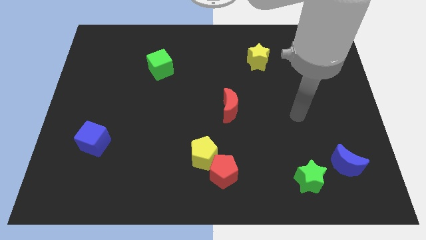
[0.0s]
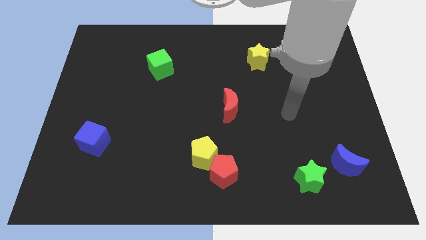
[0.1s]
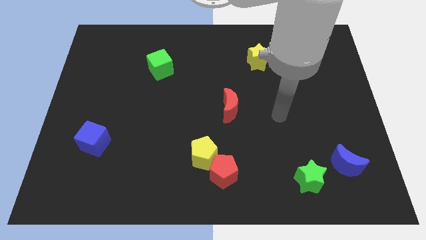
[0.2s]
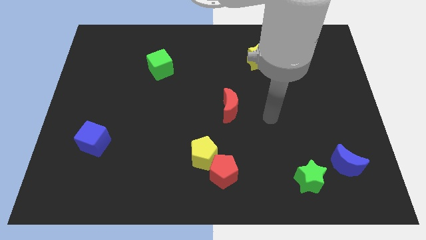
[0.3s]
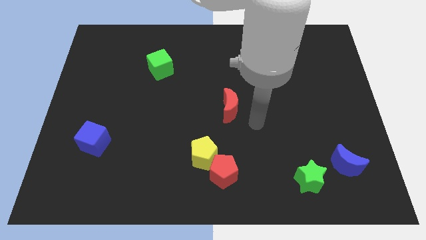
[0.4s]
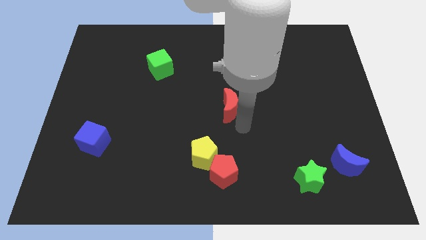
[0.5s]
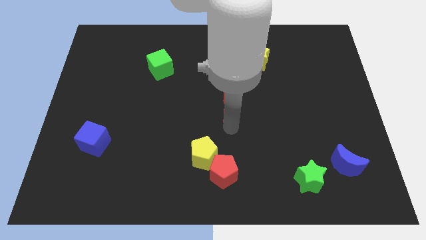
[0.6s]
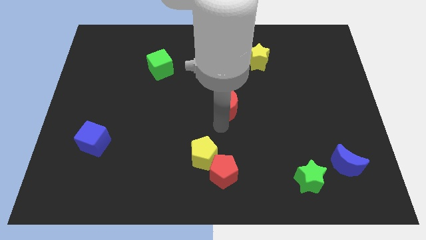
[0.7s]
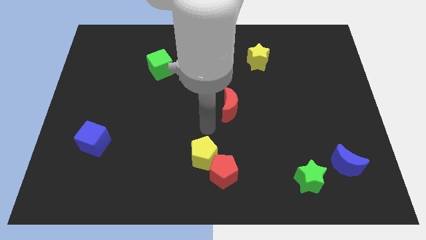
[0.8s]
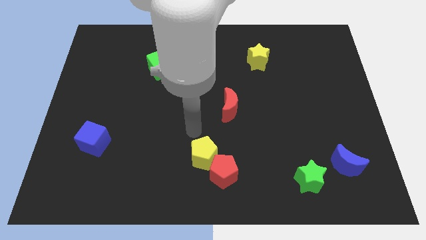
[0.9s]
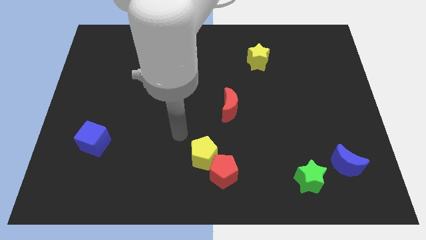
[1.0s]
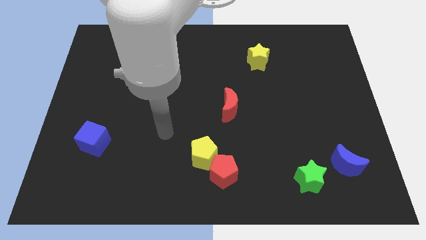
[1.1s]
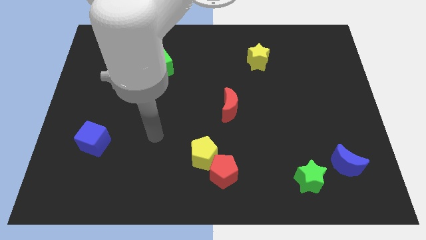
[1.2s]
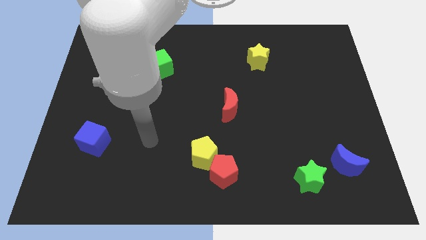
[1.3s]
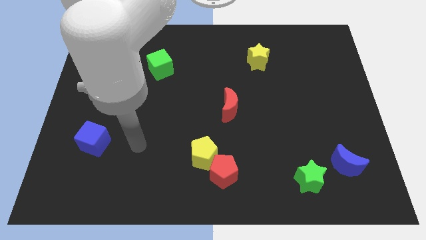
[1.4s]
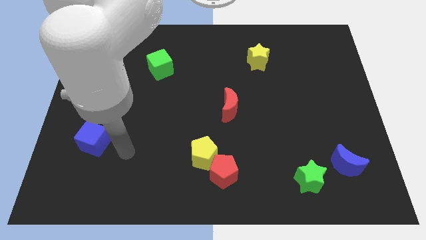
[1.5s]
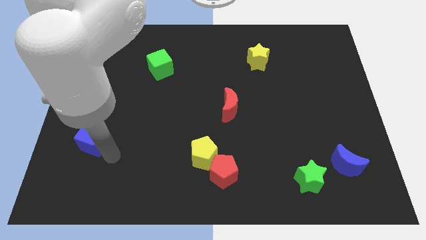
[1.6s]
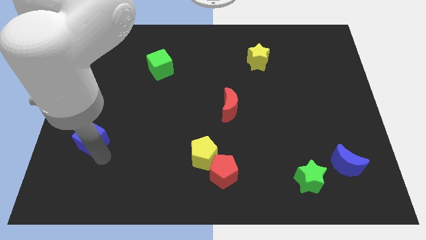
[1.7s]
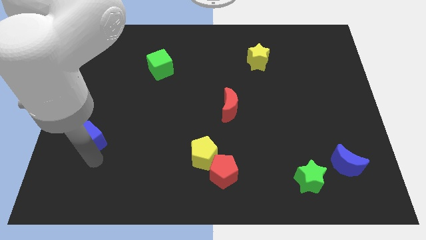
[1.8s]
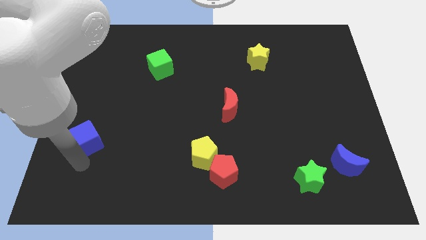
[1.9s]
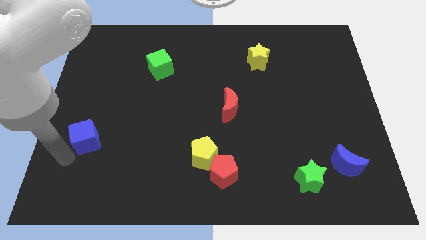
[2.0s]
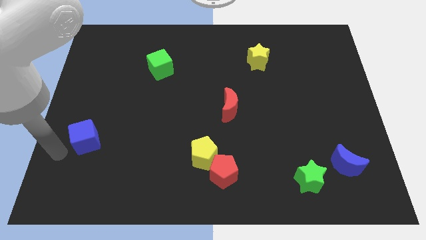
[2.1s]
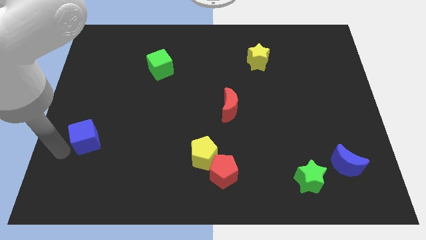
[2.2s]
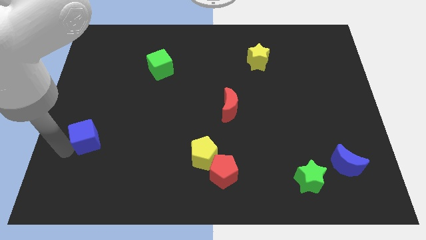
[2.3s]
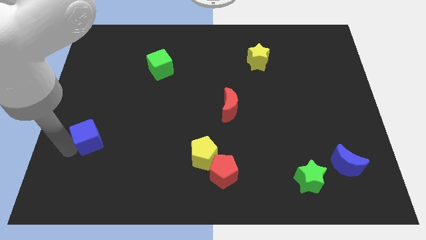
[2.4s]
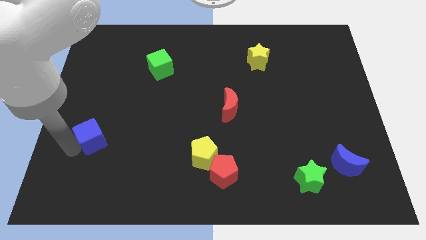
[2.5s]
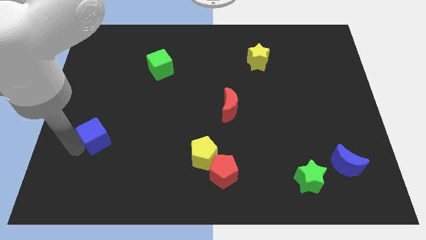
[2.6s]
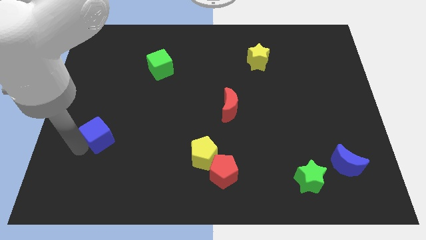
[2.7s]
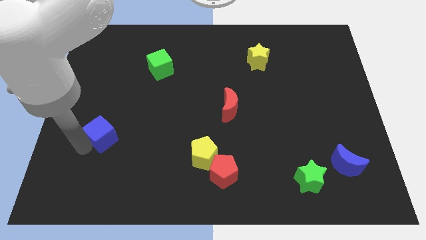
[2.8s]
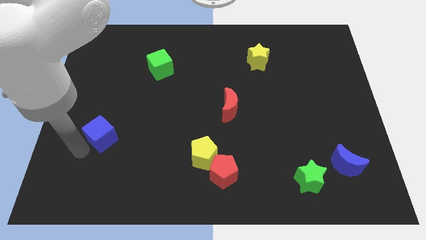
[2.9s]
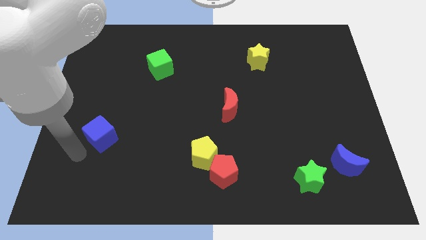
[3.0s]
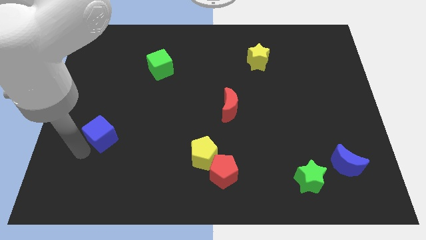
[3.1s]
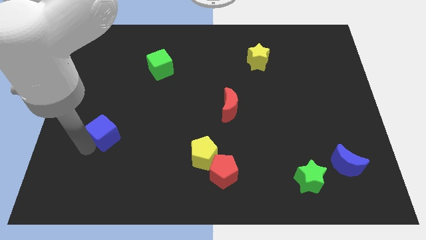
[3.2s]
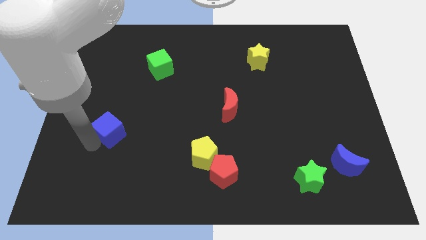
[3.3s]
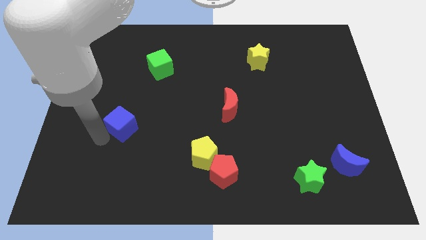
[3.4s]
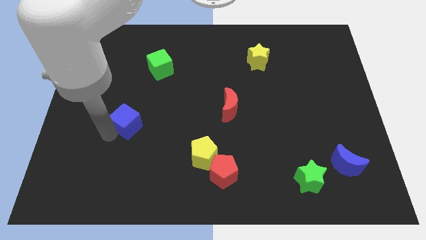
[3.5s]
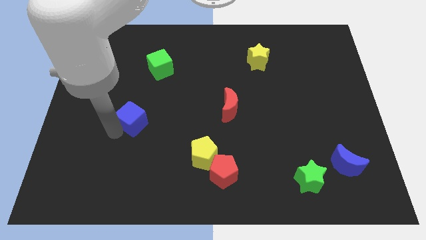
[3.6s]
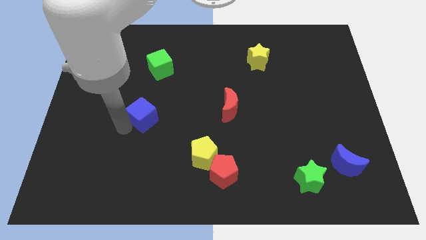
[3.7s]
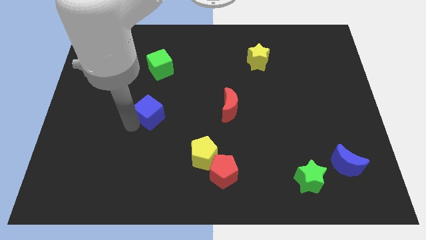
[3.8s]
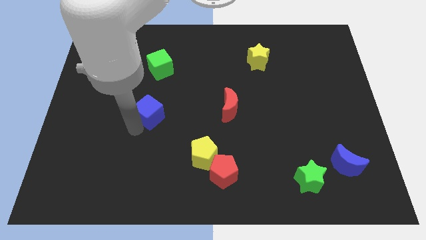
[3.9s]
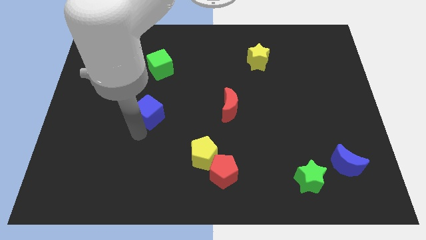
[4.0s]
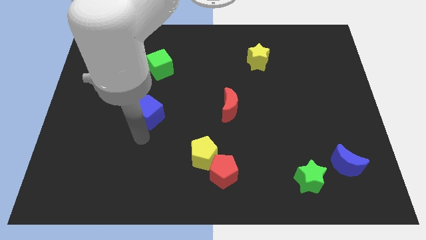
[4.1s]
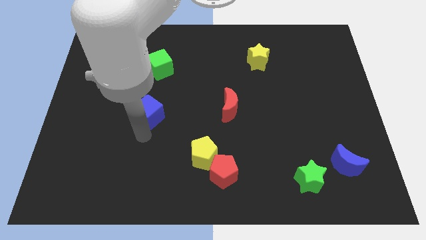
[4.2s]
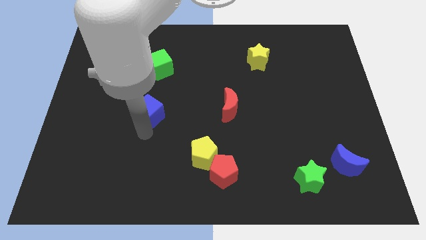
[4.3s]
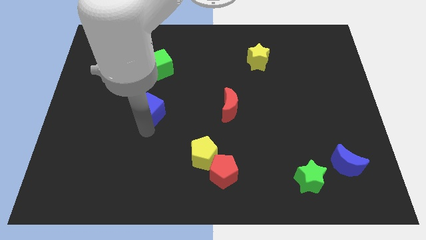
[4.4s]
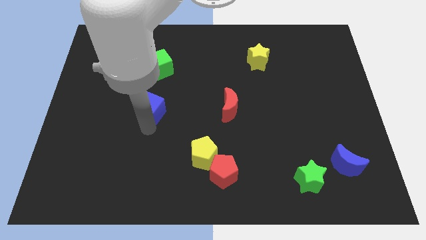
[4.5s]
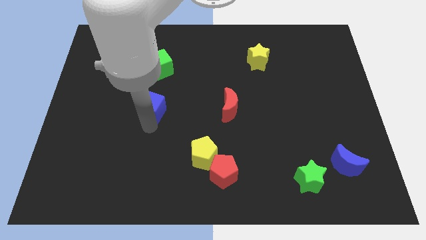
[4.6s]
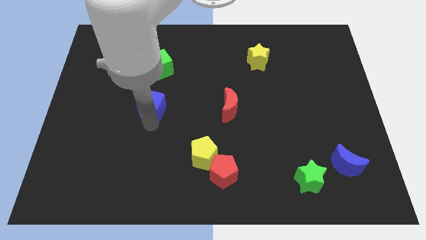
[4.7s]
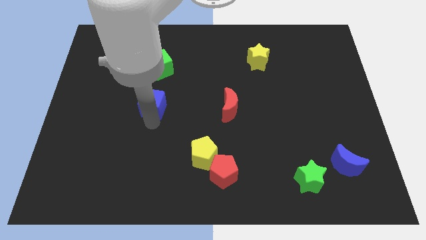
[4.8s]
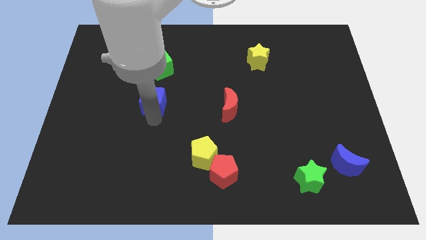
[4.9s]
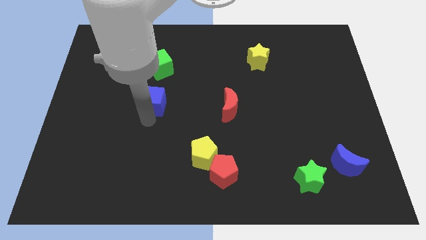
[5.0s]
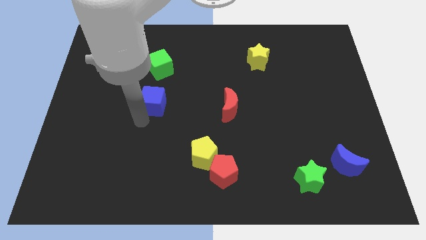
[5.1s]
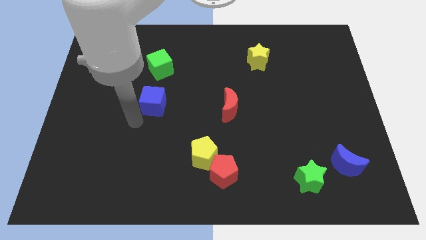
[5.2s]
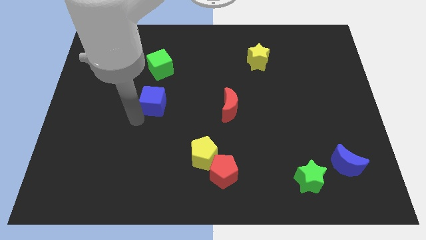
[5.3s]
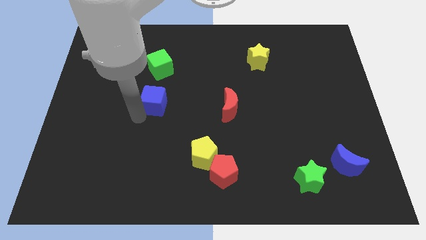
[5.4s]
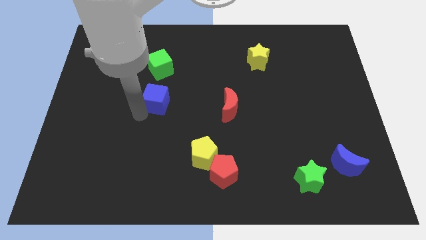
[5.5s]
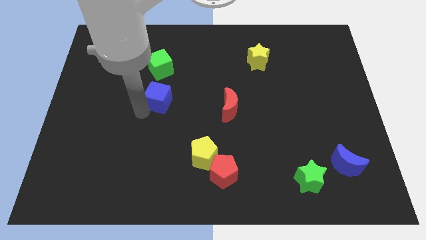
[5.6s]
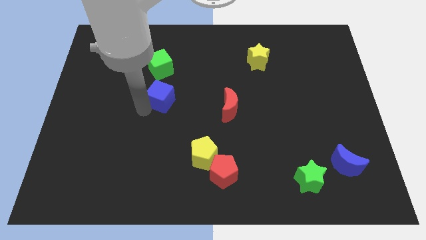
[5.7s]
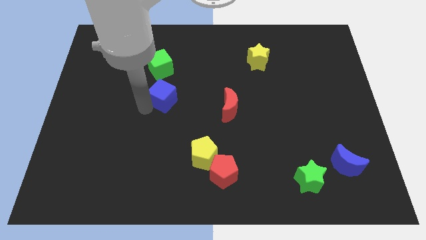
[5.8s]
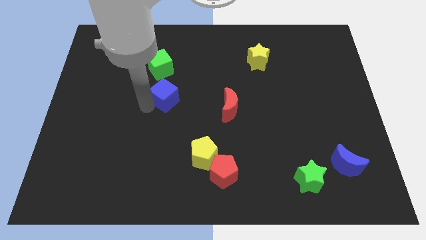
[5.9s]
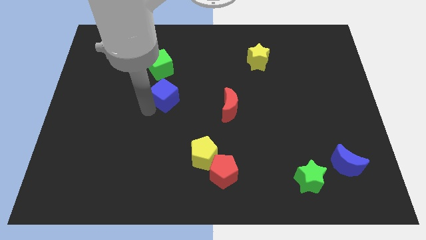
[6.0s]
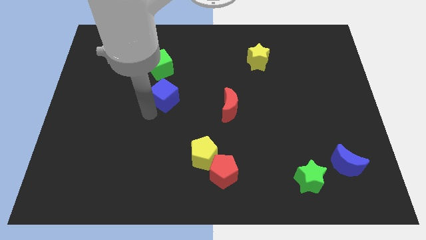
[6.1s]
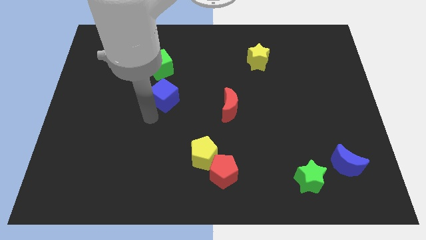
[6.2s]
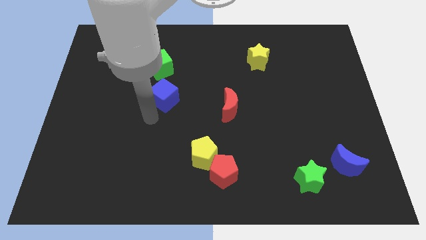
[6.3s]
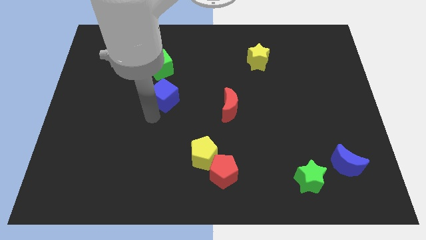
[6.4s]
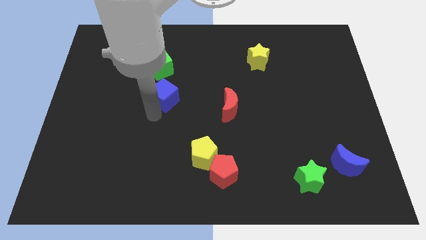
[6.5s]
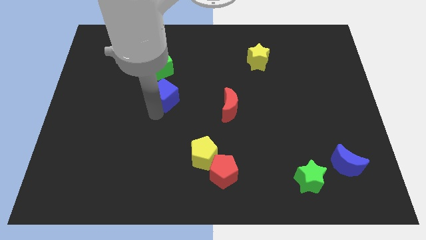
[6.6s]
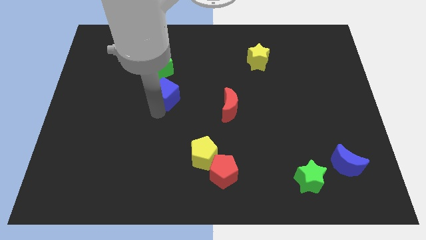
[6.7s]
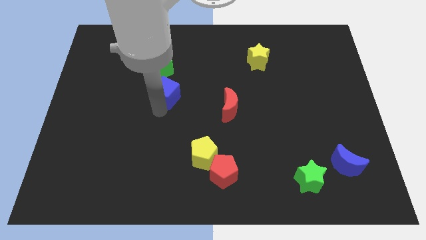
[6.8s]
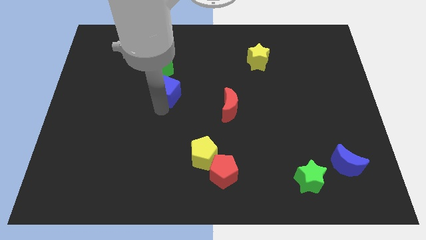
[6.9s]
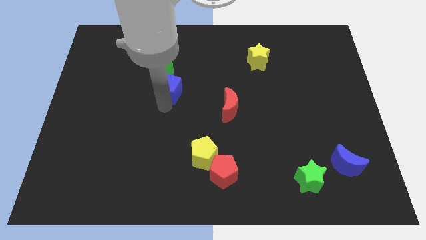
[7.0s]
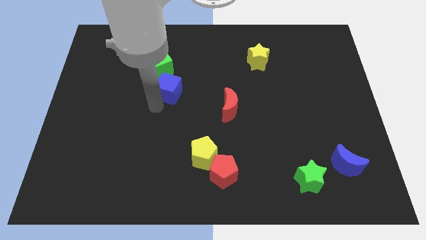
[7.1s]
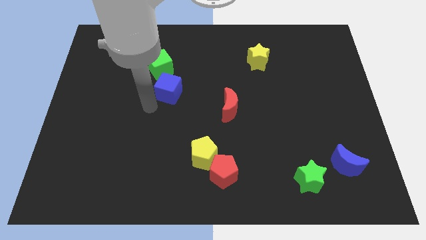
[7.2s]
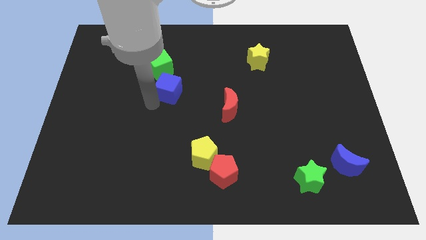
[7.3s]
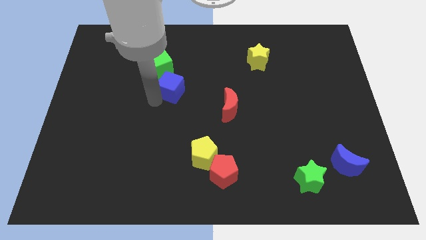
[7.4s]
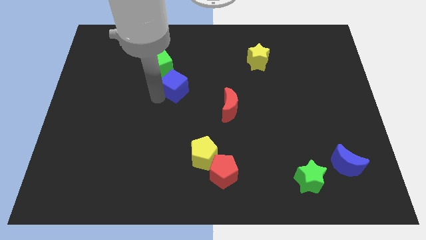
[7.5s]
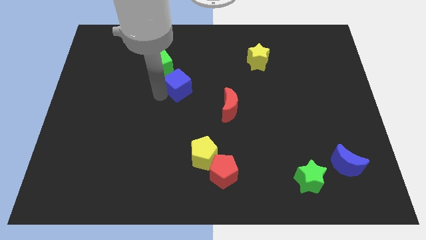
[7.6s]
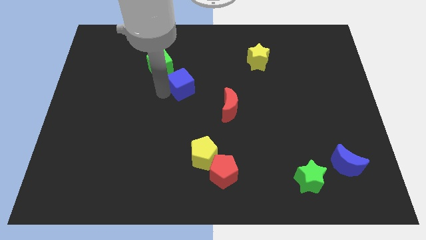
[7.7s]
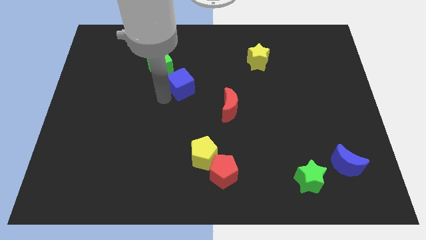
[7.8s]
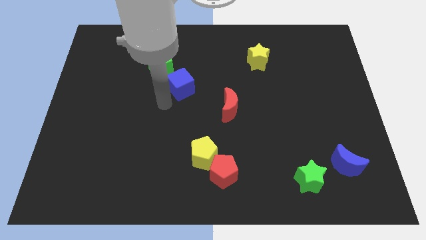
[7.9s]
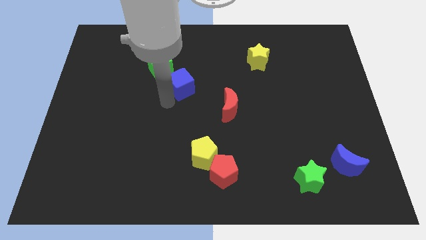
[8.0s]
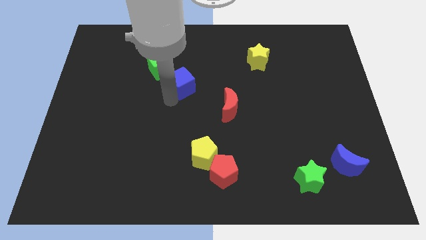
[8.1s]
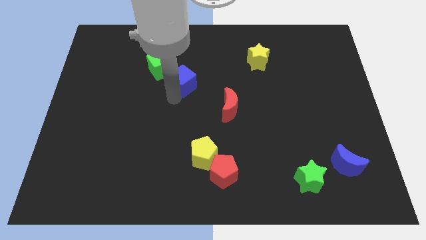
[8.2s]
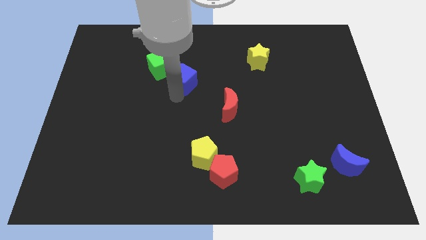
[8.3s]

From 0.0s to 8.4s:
slide the blue cube to the right of the green cube
